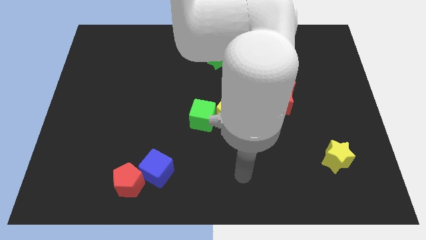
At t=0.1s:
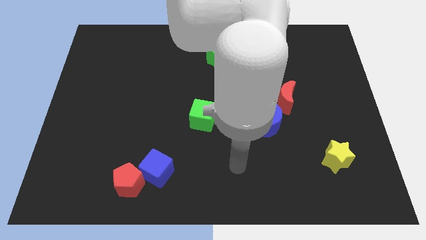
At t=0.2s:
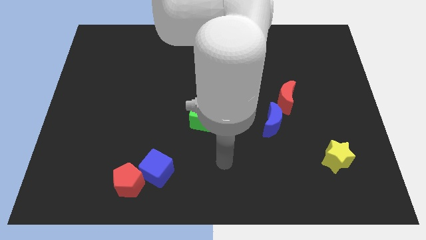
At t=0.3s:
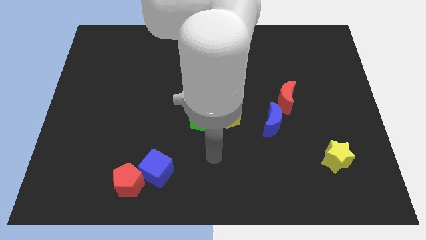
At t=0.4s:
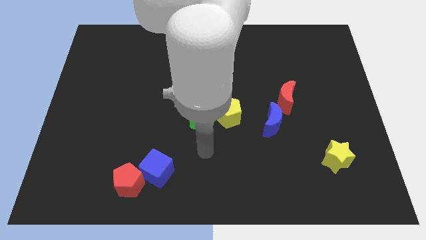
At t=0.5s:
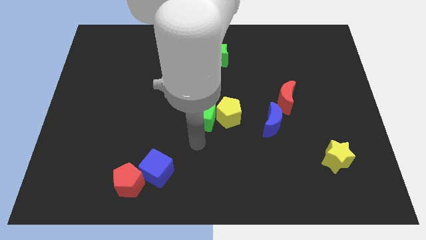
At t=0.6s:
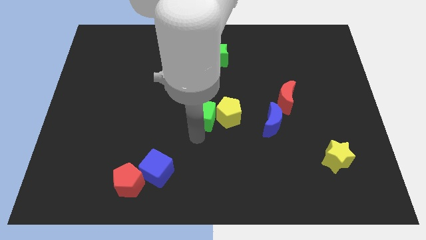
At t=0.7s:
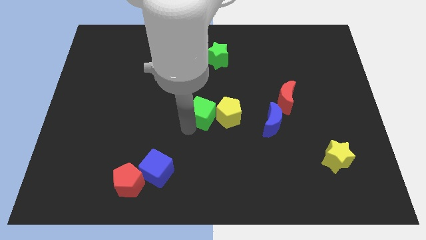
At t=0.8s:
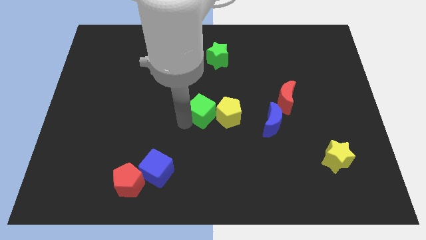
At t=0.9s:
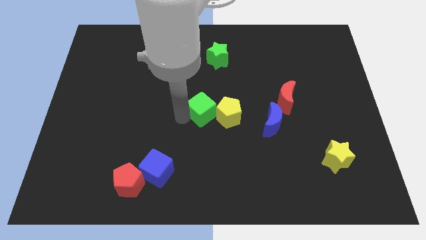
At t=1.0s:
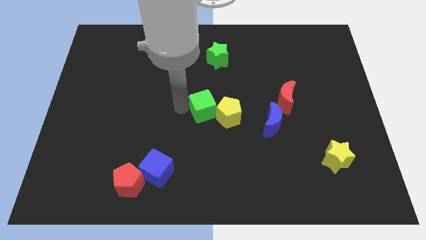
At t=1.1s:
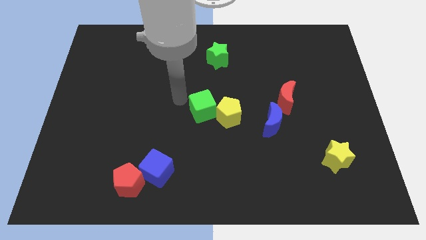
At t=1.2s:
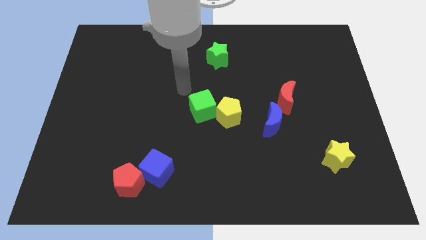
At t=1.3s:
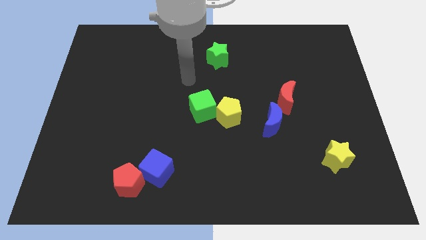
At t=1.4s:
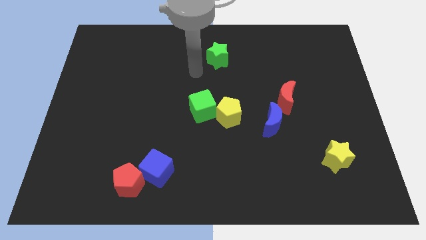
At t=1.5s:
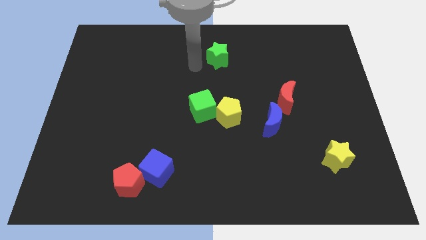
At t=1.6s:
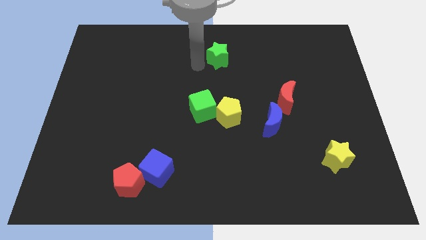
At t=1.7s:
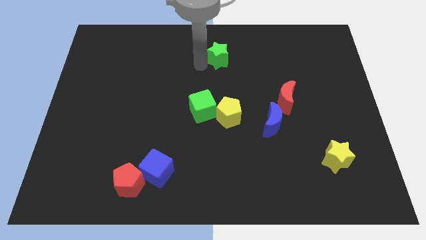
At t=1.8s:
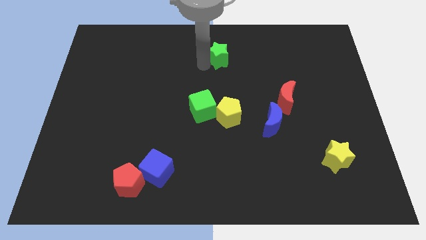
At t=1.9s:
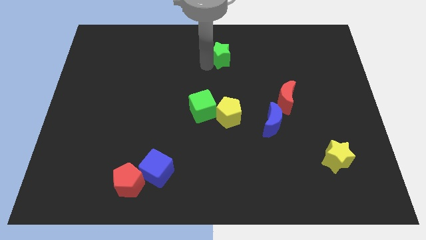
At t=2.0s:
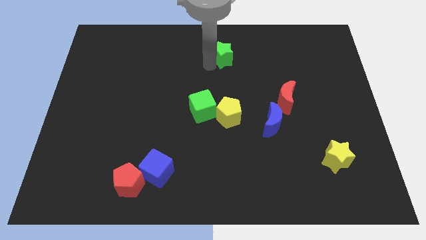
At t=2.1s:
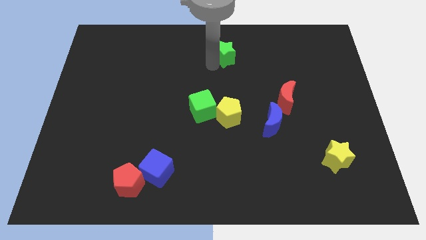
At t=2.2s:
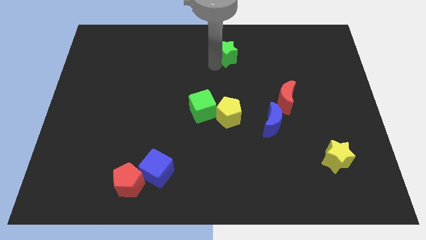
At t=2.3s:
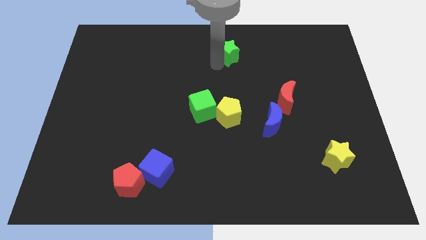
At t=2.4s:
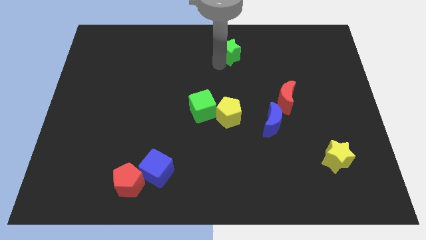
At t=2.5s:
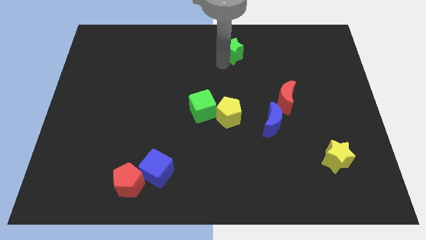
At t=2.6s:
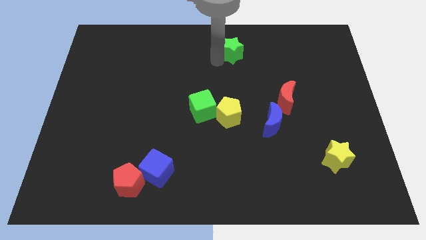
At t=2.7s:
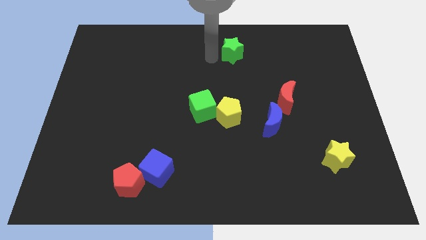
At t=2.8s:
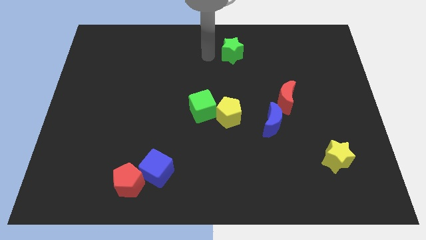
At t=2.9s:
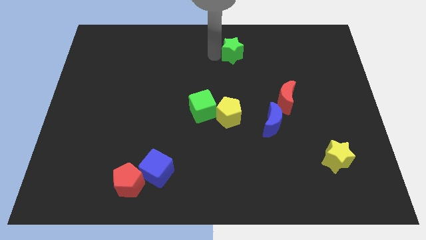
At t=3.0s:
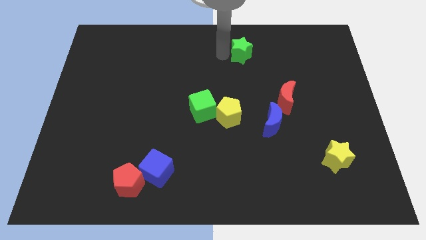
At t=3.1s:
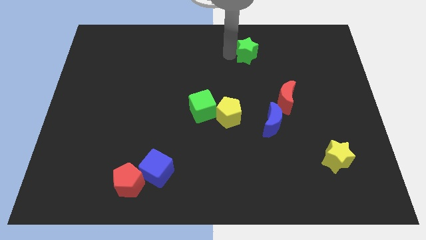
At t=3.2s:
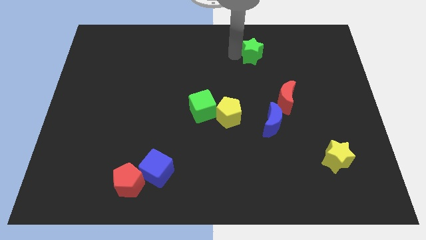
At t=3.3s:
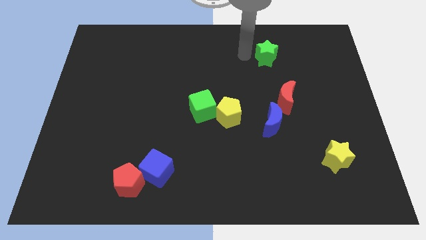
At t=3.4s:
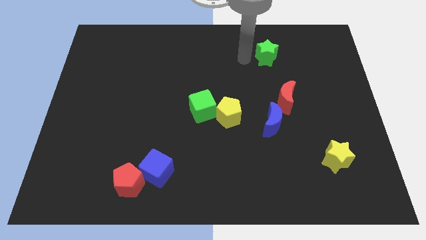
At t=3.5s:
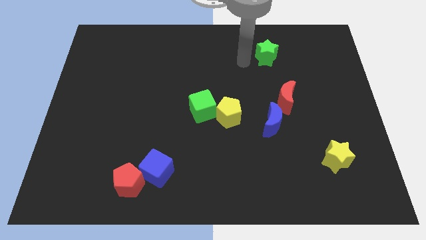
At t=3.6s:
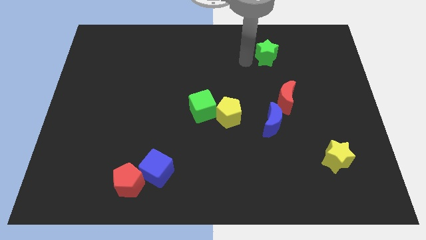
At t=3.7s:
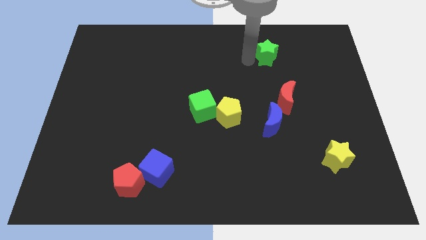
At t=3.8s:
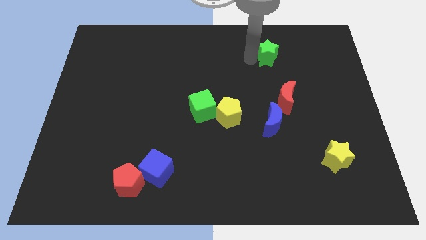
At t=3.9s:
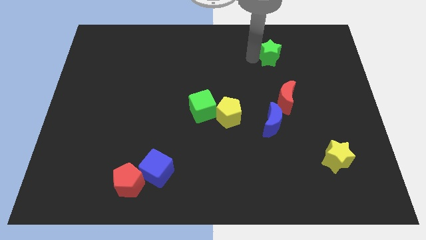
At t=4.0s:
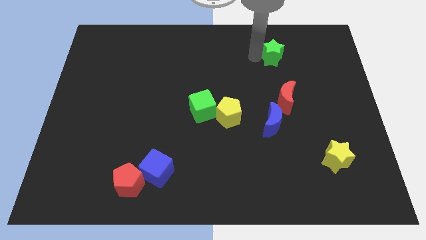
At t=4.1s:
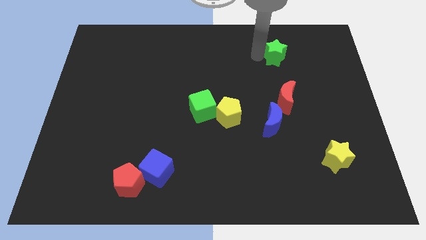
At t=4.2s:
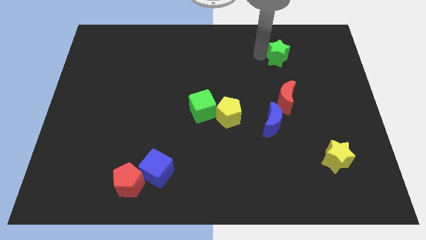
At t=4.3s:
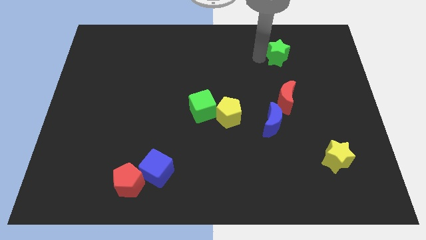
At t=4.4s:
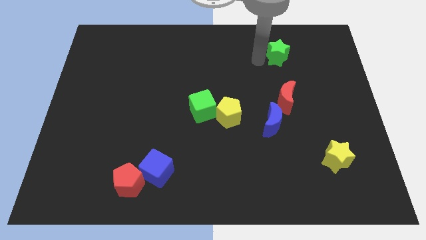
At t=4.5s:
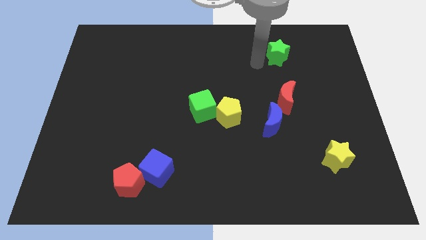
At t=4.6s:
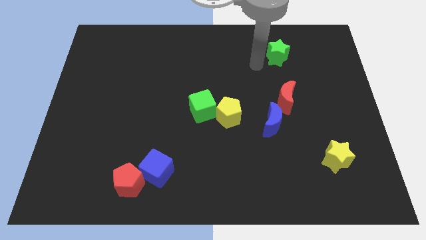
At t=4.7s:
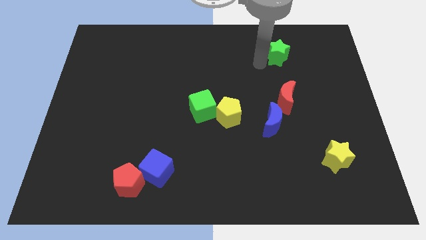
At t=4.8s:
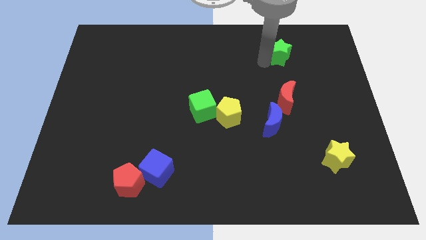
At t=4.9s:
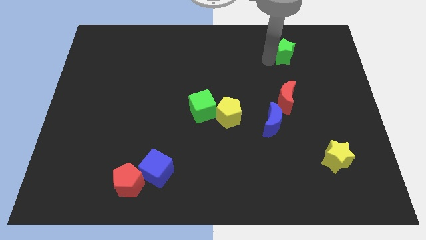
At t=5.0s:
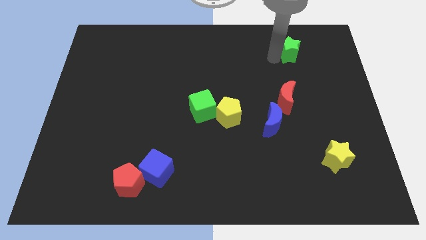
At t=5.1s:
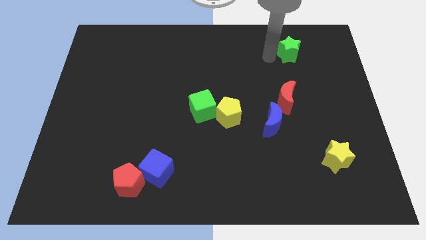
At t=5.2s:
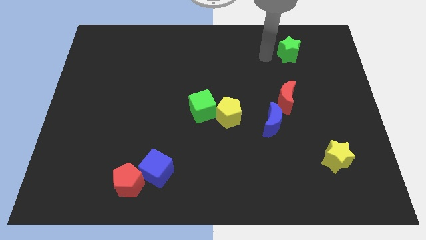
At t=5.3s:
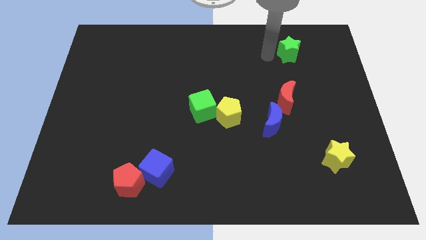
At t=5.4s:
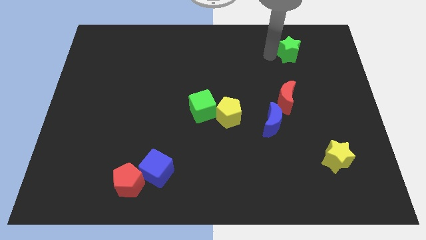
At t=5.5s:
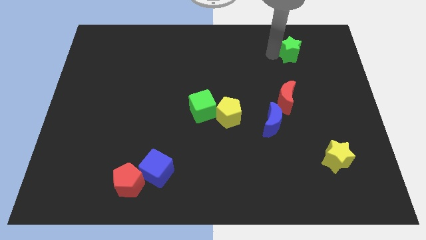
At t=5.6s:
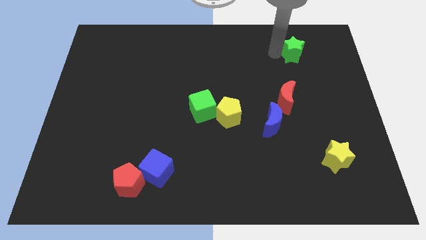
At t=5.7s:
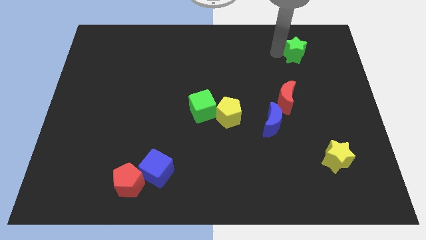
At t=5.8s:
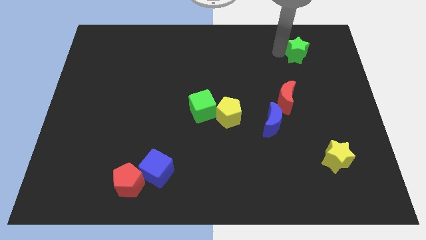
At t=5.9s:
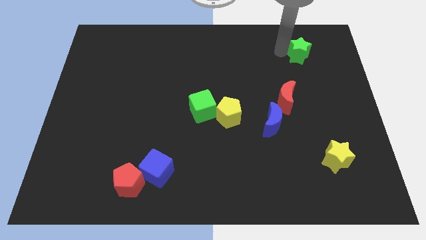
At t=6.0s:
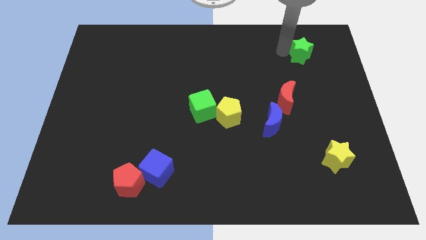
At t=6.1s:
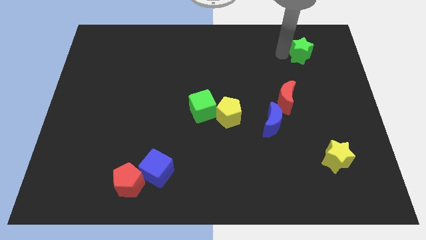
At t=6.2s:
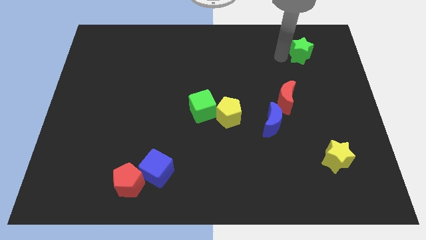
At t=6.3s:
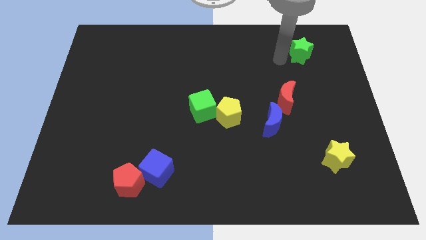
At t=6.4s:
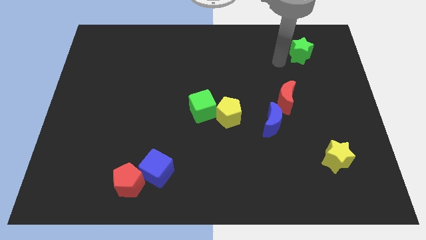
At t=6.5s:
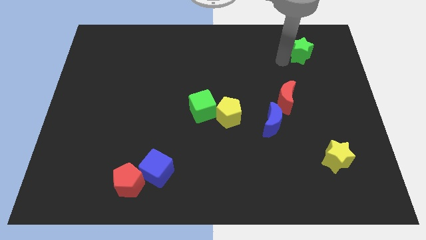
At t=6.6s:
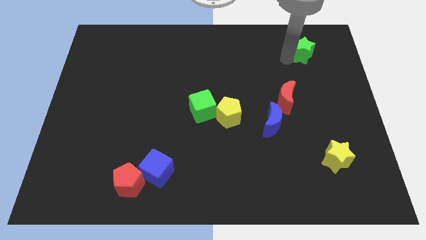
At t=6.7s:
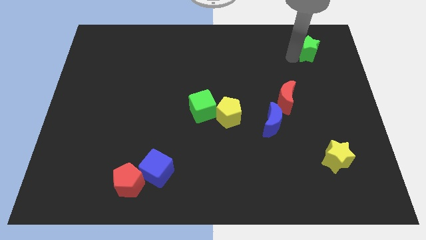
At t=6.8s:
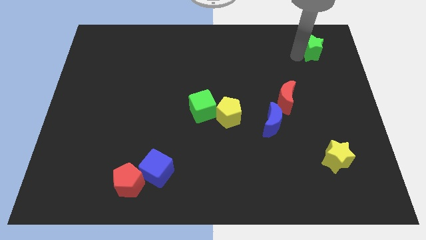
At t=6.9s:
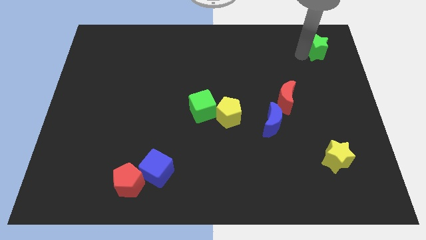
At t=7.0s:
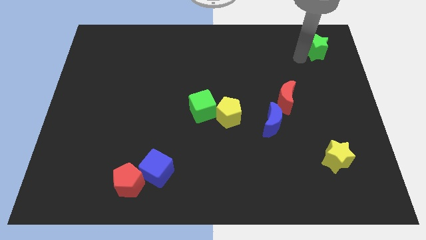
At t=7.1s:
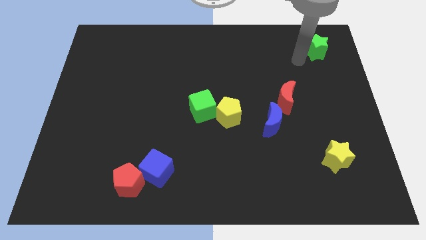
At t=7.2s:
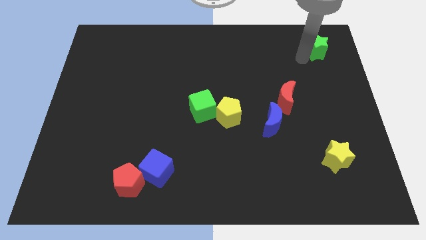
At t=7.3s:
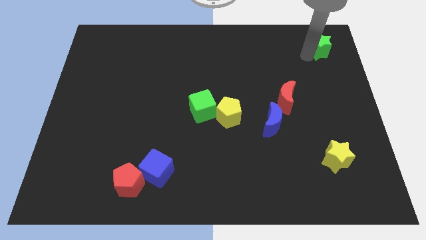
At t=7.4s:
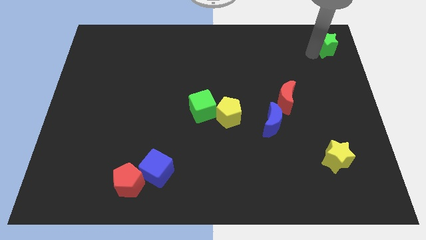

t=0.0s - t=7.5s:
put the green star to the top right
